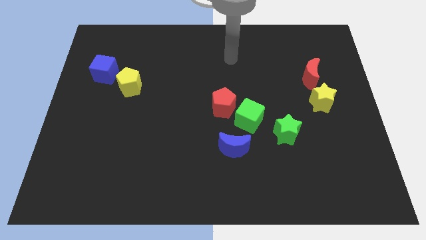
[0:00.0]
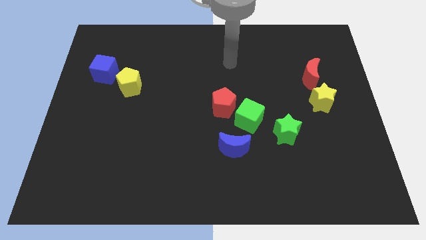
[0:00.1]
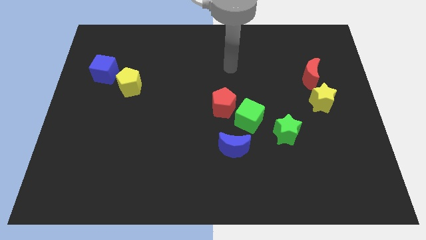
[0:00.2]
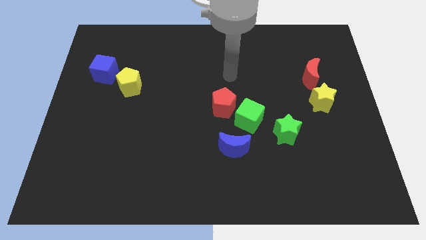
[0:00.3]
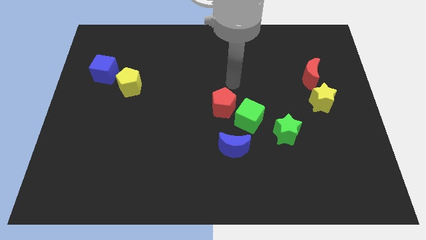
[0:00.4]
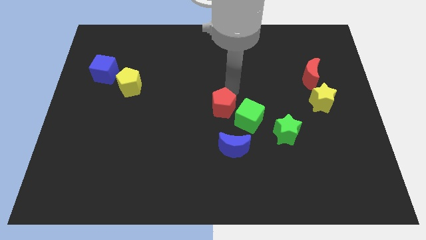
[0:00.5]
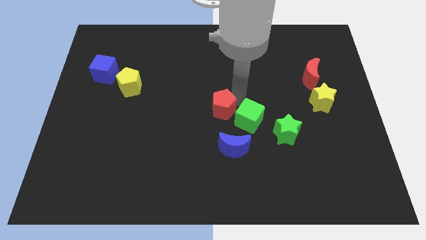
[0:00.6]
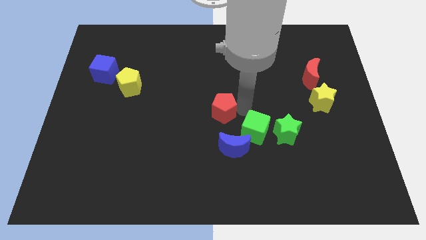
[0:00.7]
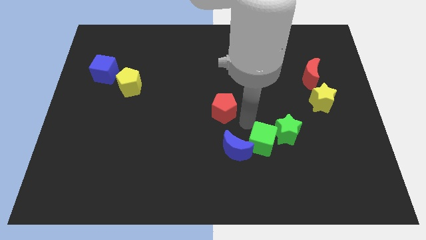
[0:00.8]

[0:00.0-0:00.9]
move the red pentagon away from the green cube

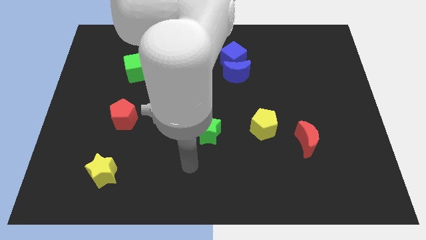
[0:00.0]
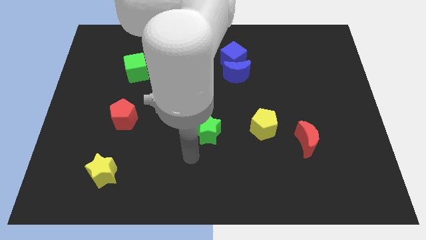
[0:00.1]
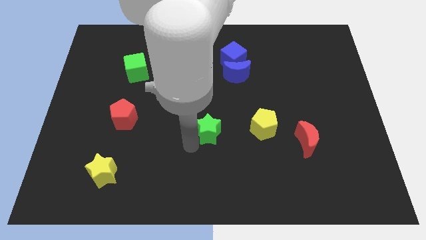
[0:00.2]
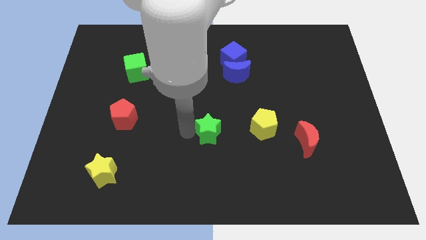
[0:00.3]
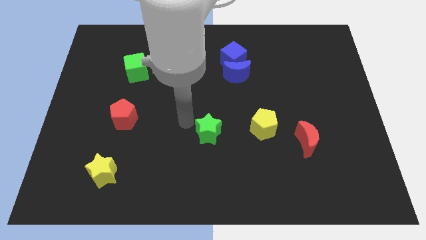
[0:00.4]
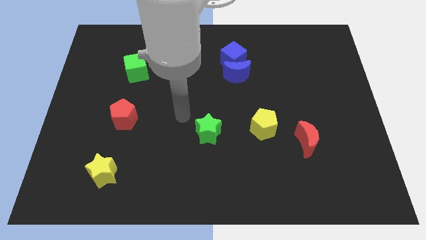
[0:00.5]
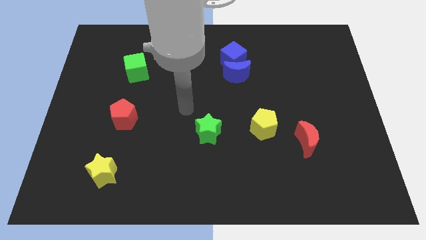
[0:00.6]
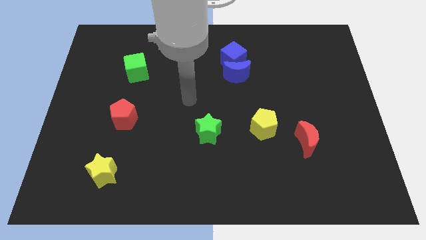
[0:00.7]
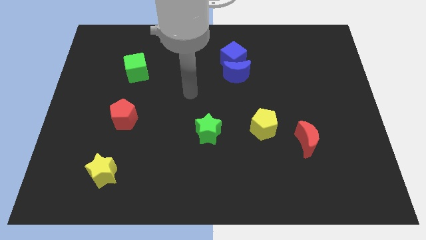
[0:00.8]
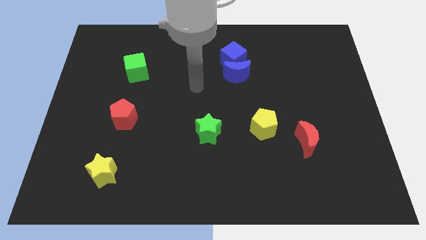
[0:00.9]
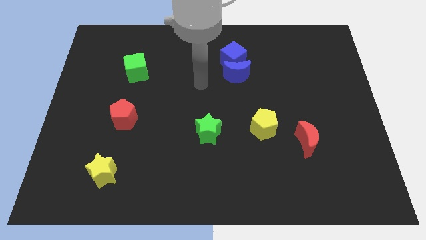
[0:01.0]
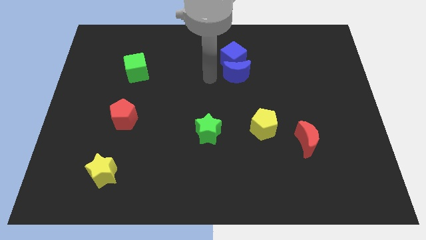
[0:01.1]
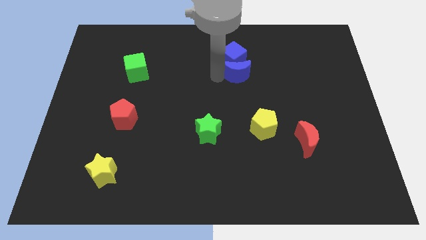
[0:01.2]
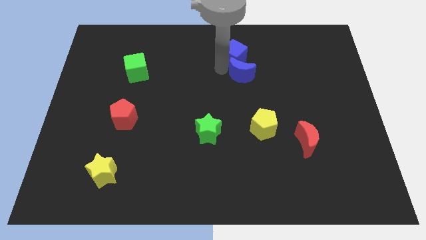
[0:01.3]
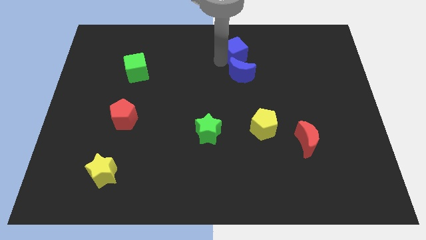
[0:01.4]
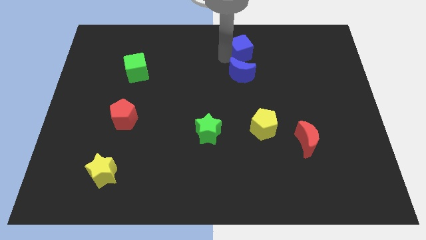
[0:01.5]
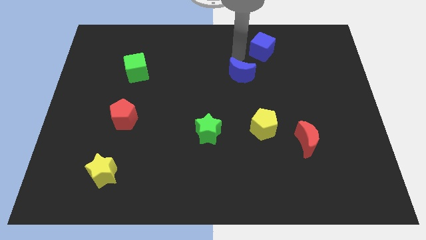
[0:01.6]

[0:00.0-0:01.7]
pull the blue moon apart from the blue cube

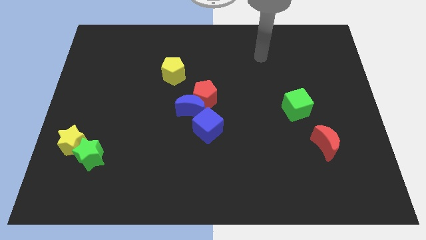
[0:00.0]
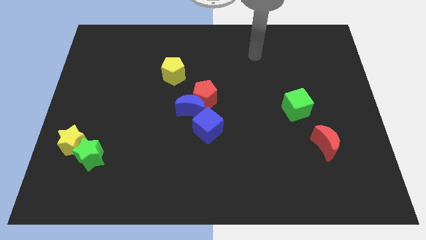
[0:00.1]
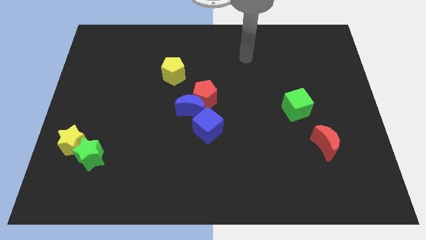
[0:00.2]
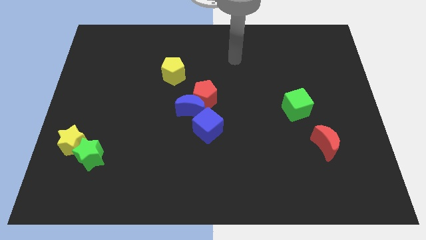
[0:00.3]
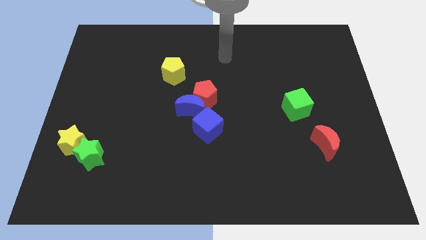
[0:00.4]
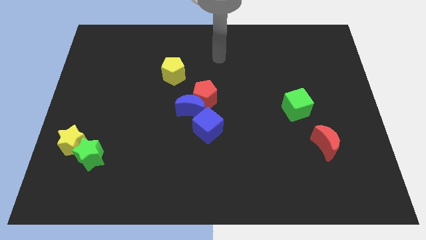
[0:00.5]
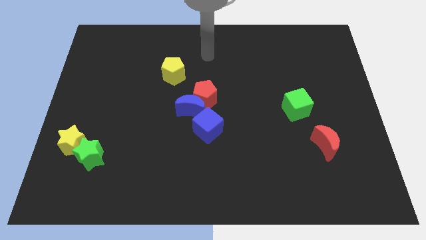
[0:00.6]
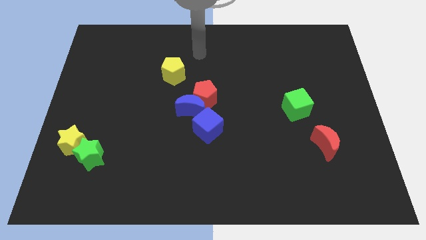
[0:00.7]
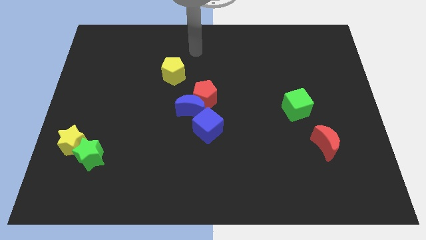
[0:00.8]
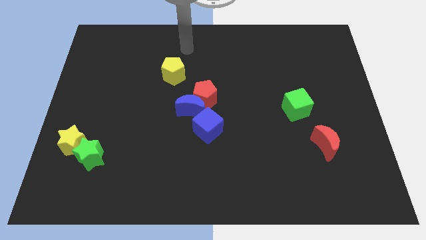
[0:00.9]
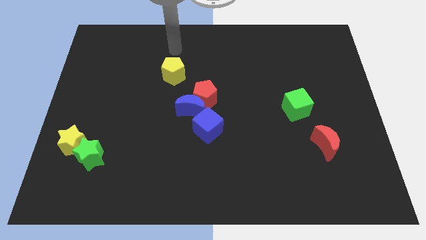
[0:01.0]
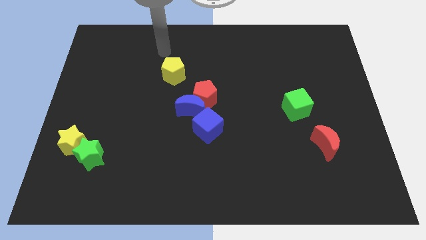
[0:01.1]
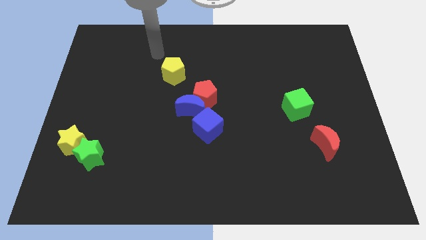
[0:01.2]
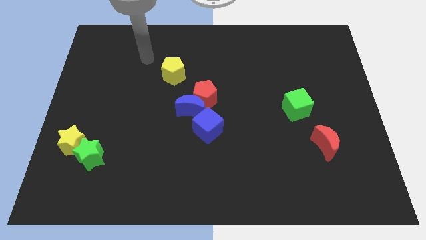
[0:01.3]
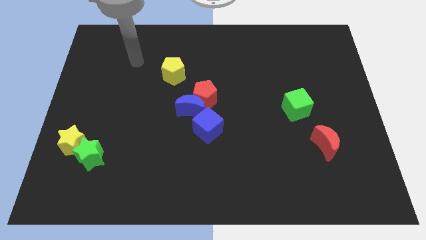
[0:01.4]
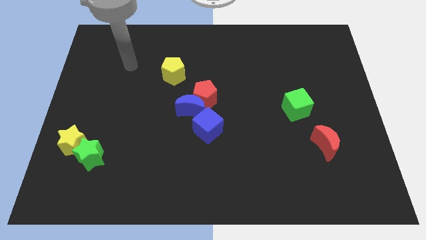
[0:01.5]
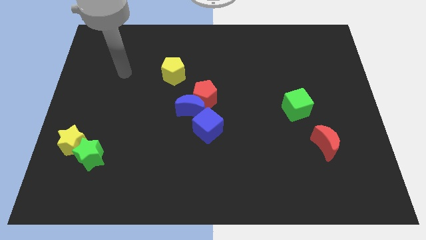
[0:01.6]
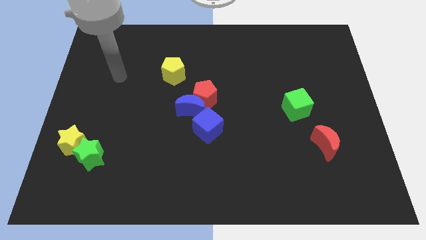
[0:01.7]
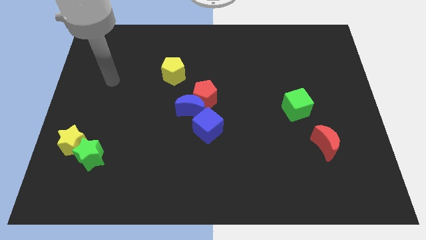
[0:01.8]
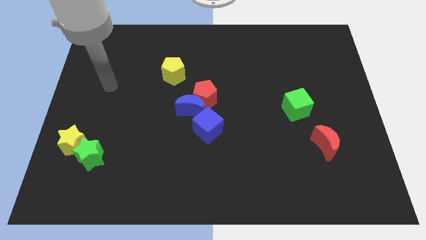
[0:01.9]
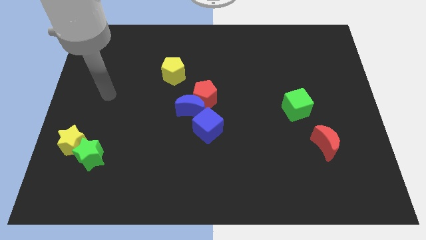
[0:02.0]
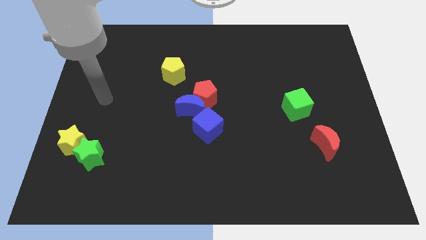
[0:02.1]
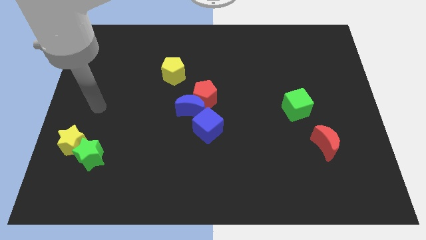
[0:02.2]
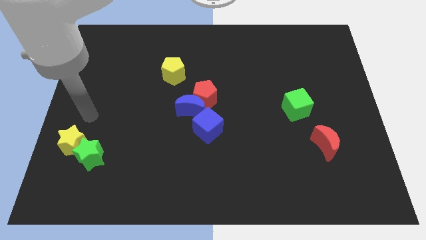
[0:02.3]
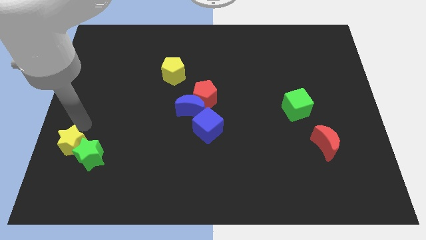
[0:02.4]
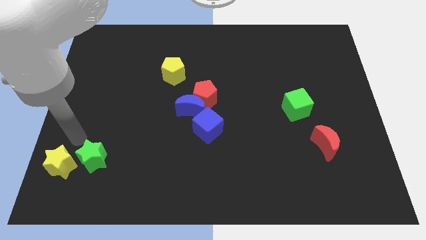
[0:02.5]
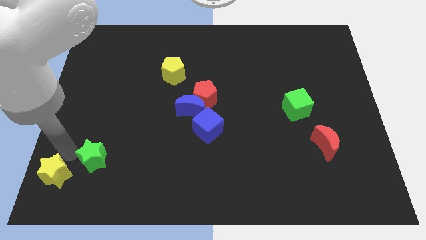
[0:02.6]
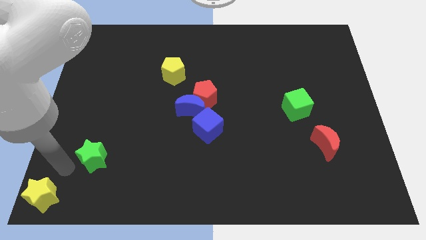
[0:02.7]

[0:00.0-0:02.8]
pull the green star apart from the yellow star

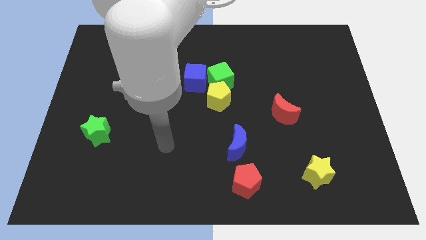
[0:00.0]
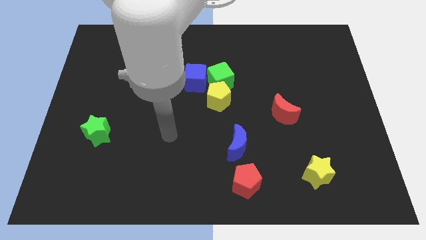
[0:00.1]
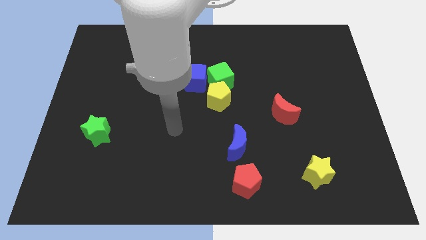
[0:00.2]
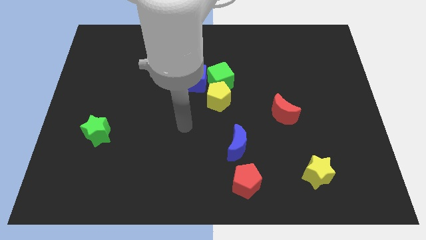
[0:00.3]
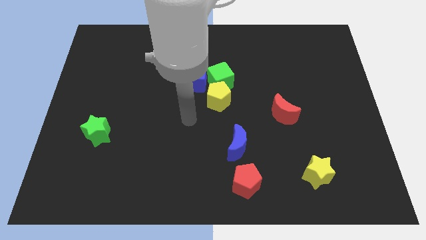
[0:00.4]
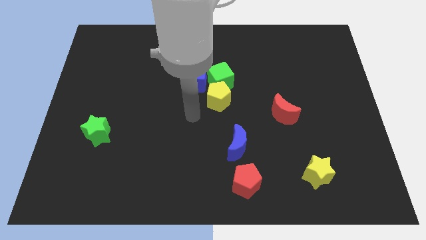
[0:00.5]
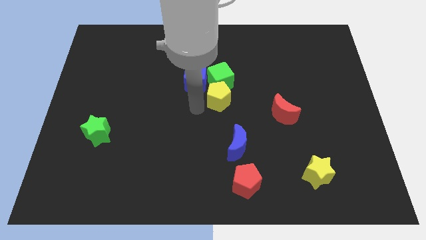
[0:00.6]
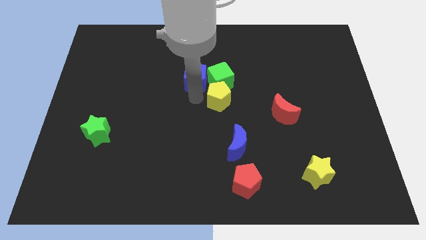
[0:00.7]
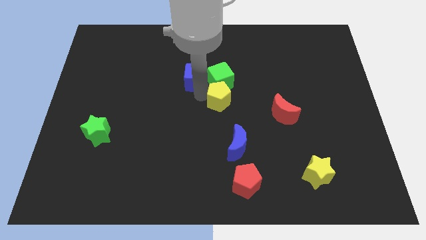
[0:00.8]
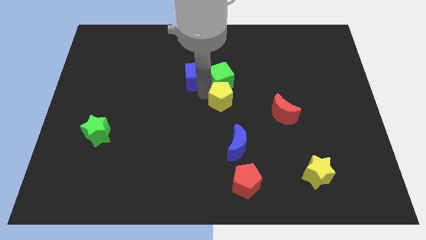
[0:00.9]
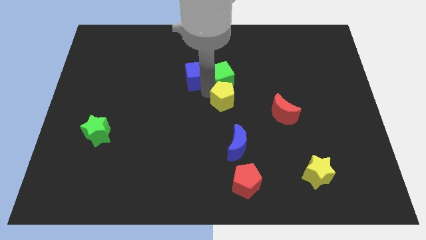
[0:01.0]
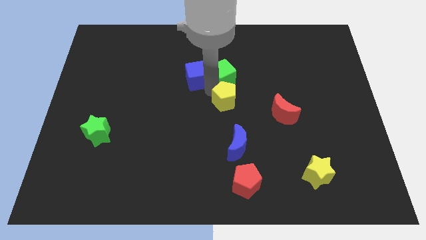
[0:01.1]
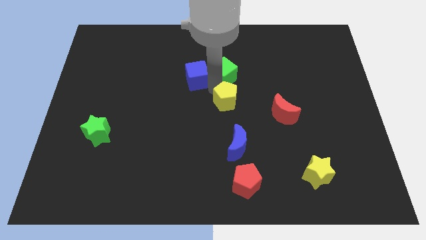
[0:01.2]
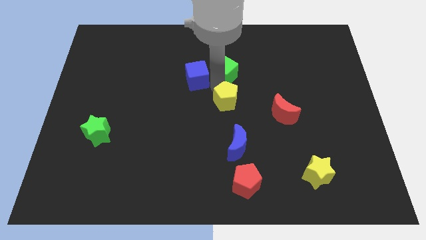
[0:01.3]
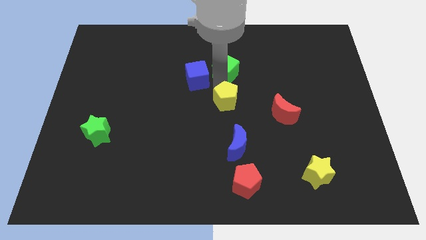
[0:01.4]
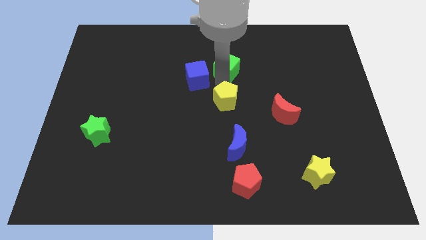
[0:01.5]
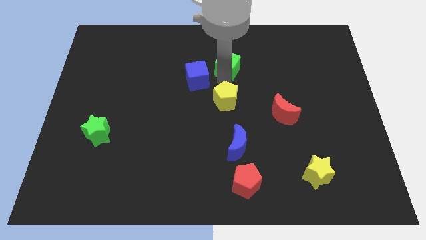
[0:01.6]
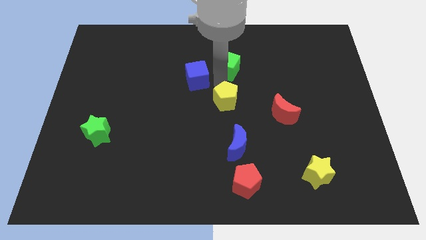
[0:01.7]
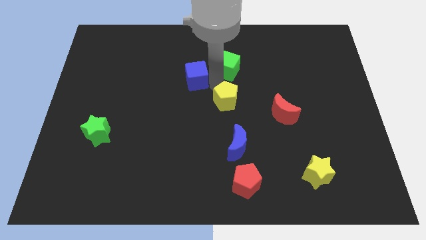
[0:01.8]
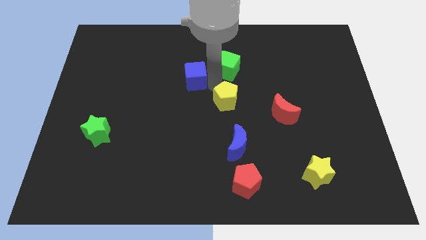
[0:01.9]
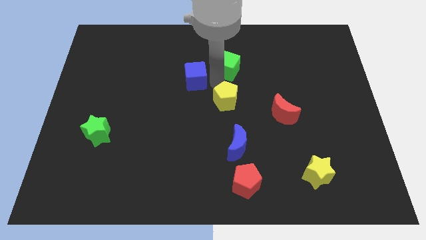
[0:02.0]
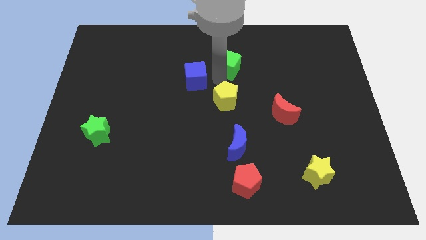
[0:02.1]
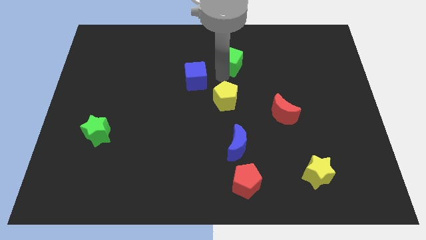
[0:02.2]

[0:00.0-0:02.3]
separate the green cube from the yellow pentagon and blue cube

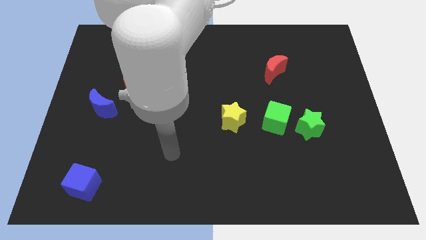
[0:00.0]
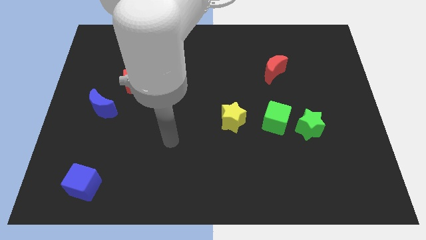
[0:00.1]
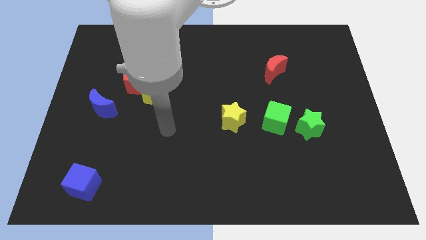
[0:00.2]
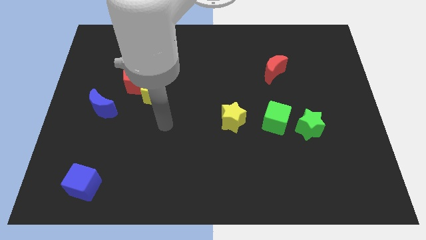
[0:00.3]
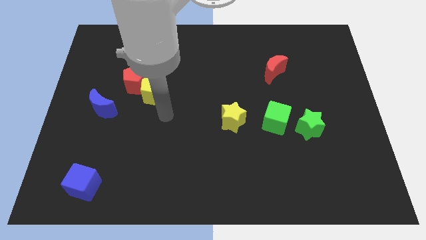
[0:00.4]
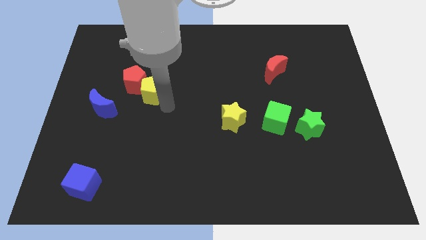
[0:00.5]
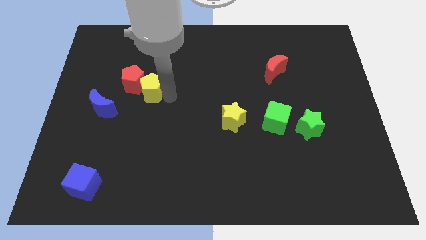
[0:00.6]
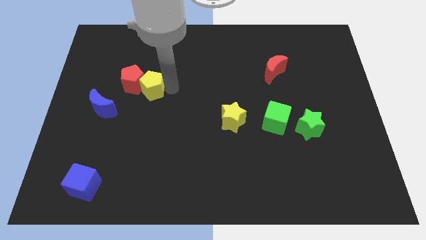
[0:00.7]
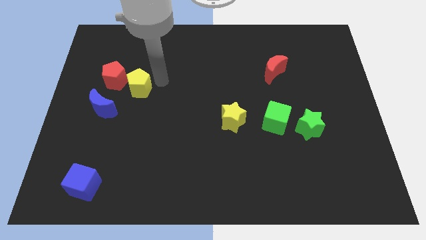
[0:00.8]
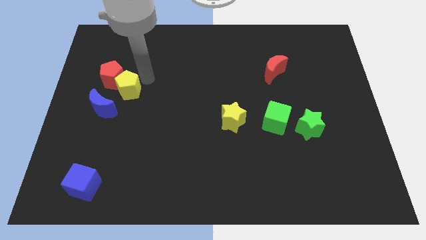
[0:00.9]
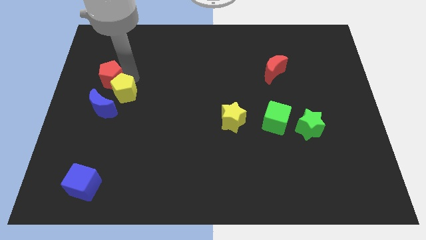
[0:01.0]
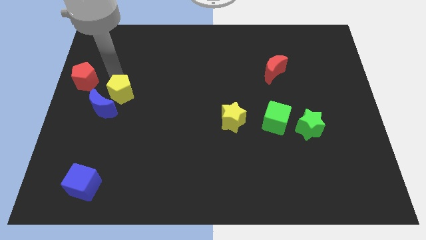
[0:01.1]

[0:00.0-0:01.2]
separate the yellow pentagon from the red pentagon

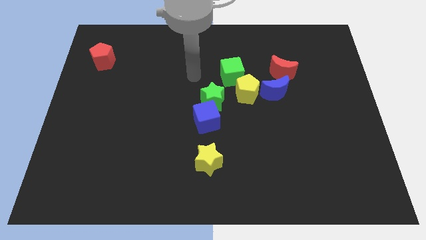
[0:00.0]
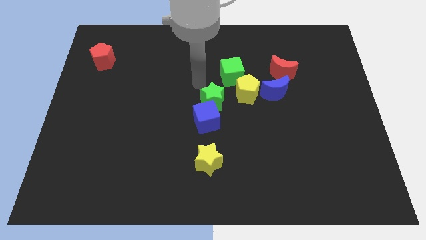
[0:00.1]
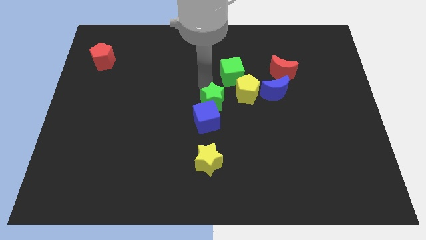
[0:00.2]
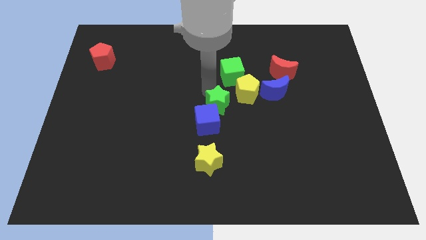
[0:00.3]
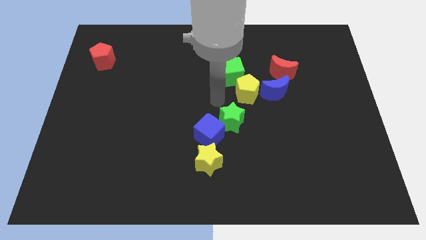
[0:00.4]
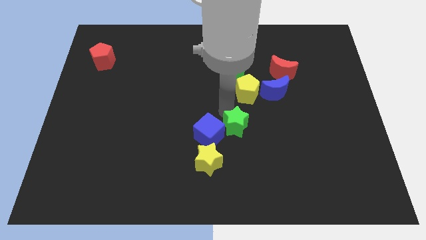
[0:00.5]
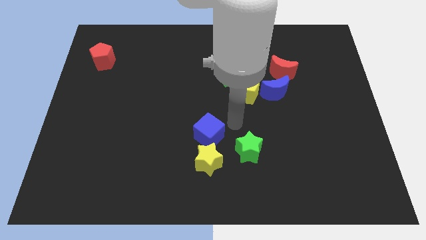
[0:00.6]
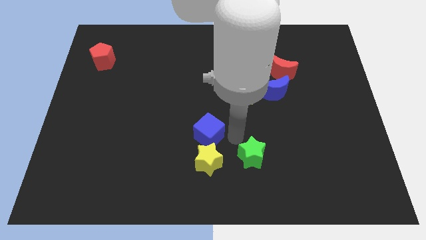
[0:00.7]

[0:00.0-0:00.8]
pull the blue cube apart from the green star
